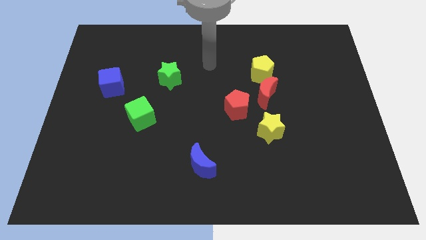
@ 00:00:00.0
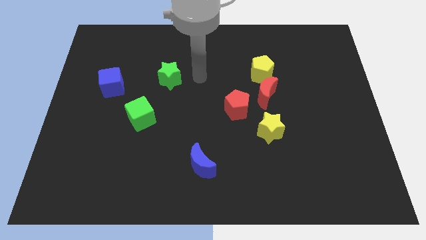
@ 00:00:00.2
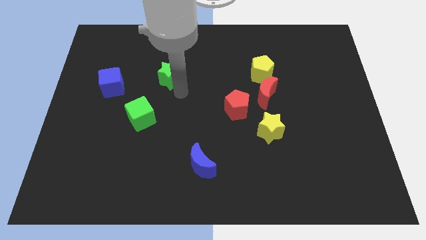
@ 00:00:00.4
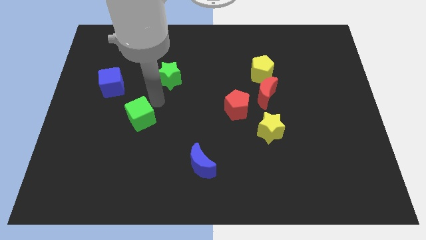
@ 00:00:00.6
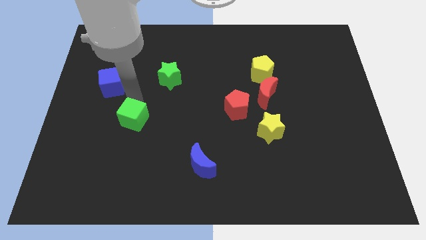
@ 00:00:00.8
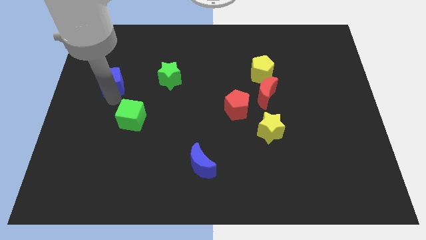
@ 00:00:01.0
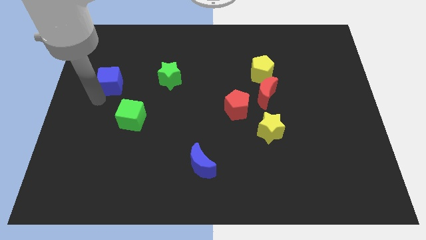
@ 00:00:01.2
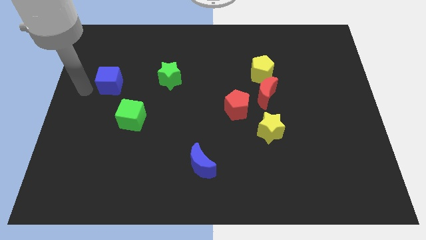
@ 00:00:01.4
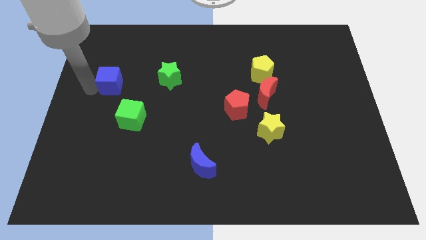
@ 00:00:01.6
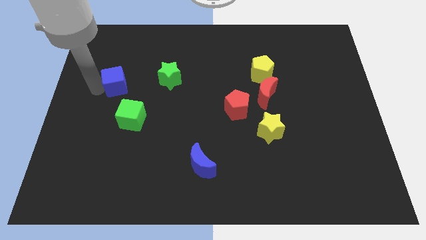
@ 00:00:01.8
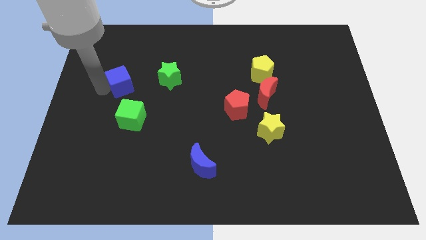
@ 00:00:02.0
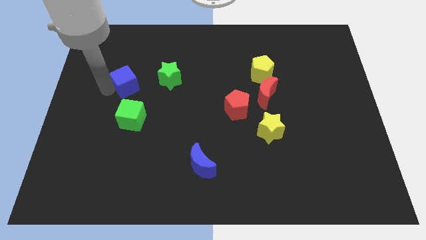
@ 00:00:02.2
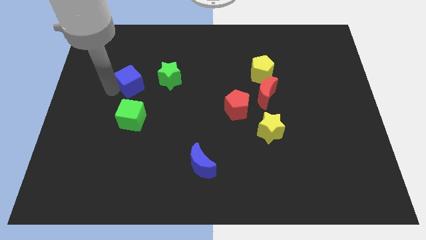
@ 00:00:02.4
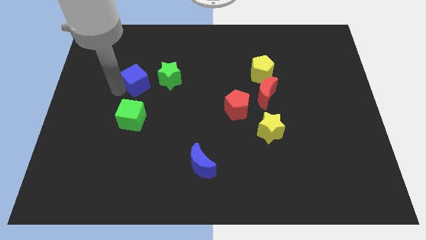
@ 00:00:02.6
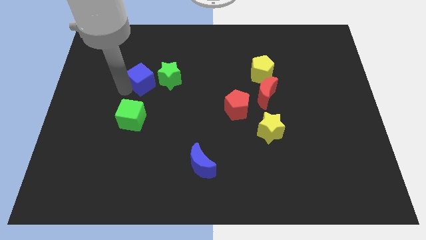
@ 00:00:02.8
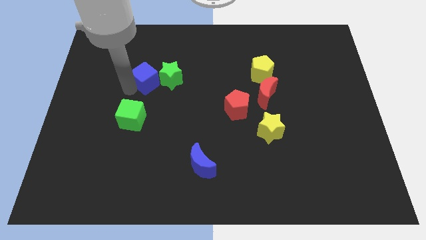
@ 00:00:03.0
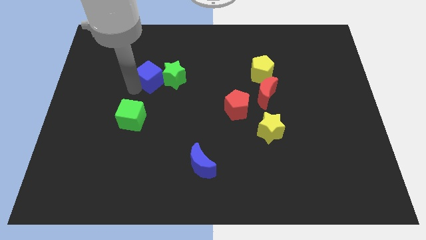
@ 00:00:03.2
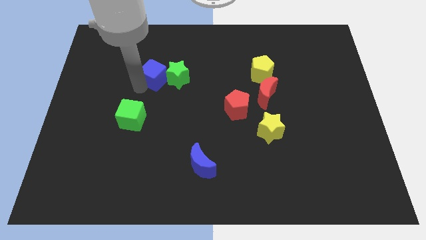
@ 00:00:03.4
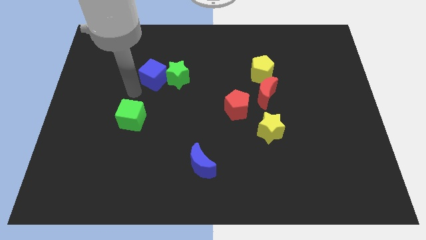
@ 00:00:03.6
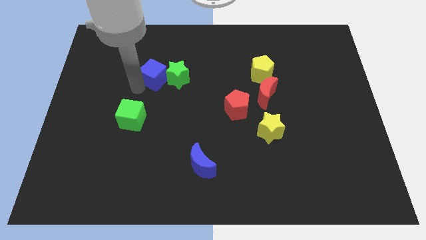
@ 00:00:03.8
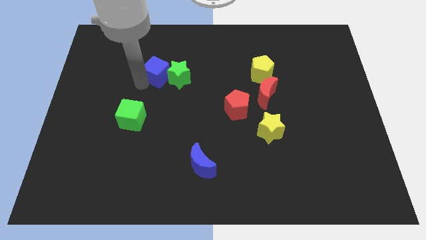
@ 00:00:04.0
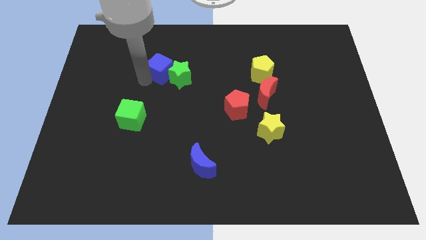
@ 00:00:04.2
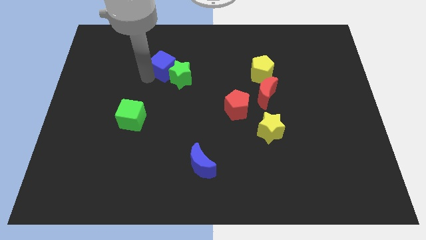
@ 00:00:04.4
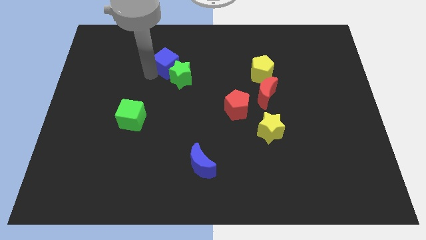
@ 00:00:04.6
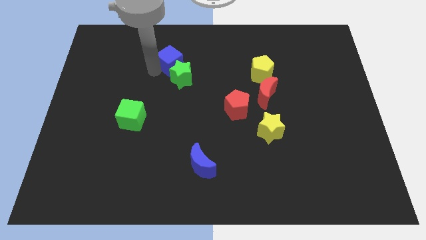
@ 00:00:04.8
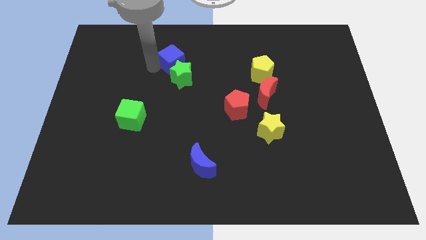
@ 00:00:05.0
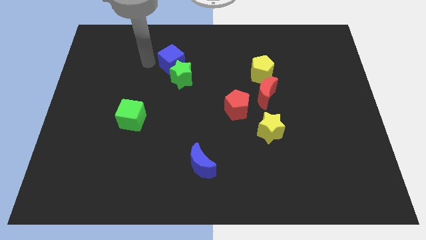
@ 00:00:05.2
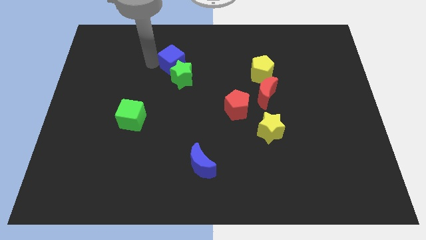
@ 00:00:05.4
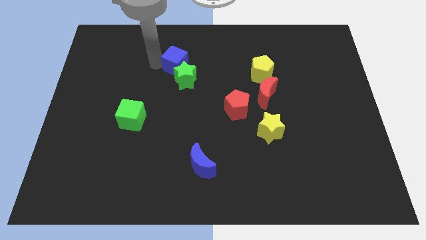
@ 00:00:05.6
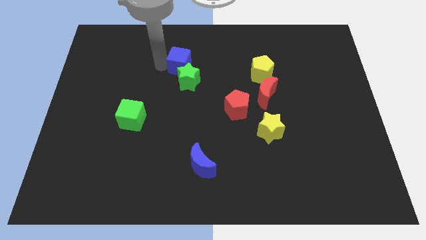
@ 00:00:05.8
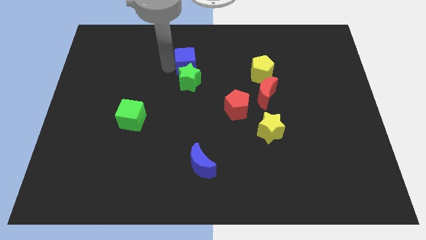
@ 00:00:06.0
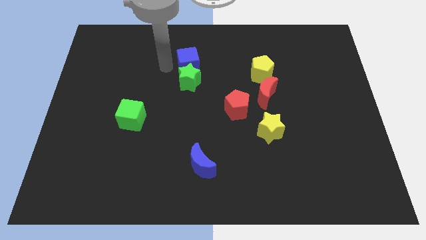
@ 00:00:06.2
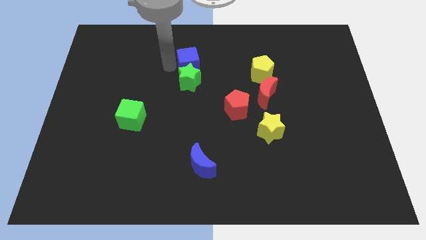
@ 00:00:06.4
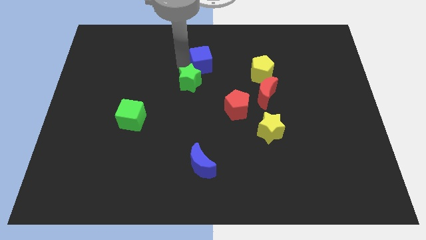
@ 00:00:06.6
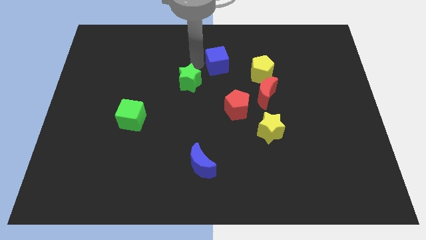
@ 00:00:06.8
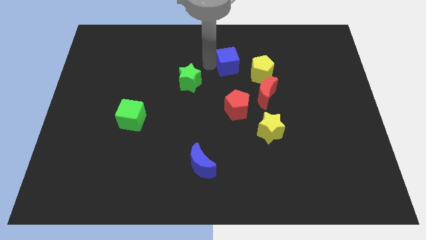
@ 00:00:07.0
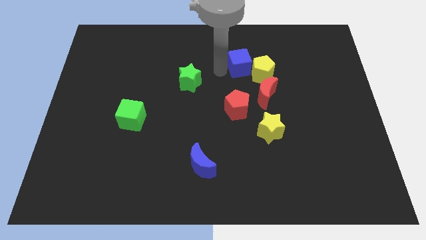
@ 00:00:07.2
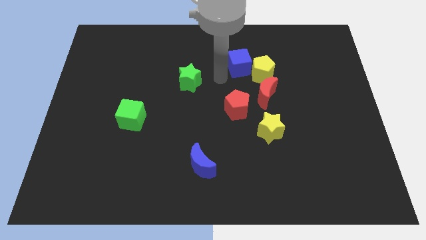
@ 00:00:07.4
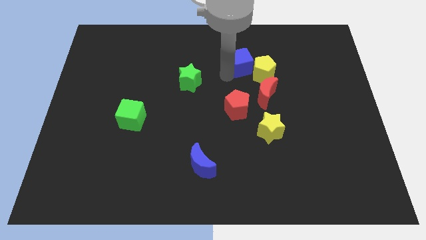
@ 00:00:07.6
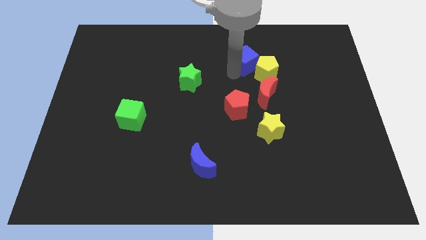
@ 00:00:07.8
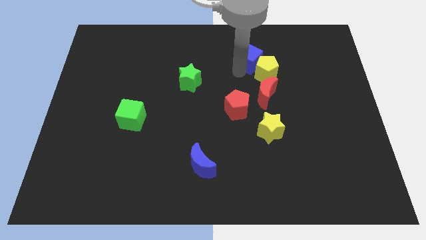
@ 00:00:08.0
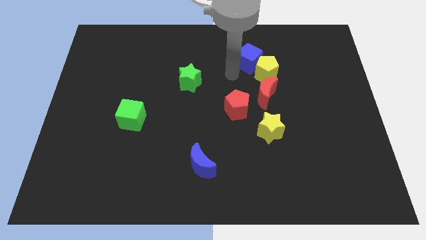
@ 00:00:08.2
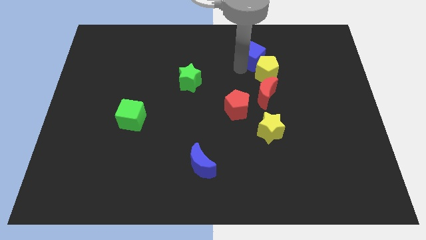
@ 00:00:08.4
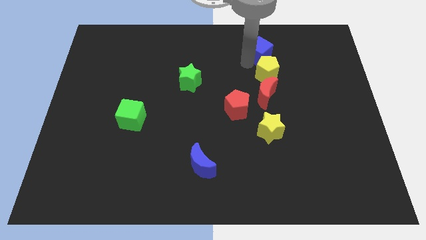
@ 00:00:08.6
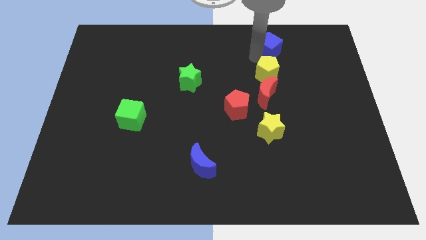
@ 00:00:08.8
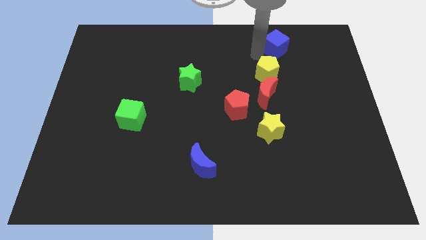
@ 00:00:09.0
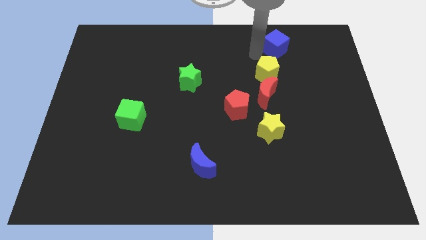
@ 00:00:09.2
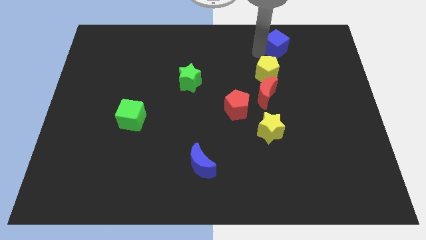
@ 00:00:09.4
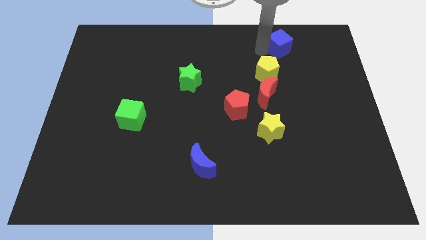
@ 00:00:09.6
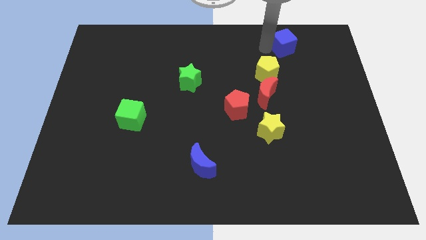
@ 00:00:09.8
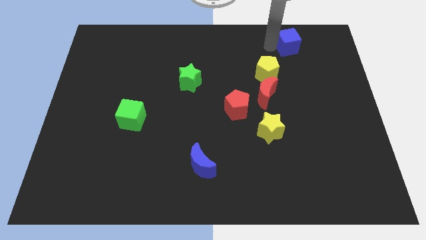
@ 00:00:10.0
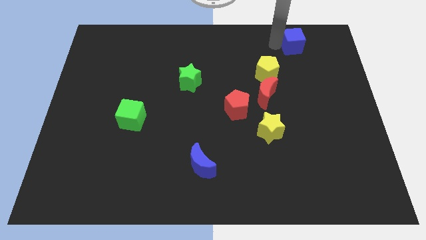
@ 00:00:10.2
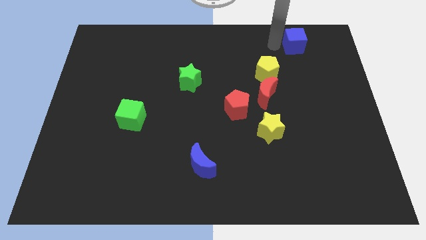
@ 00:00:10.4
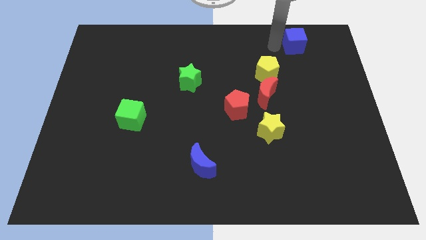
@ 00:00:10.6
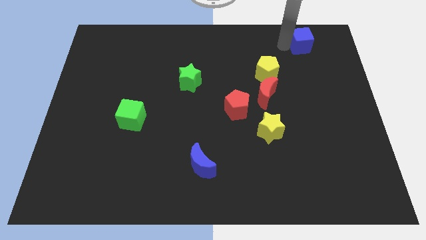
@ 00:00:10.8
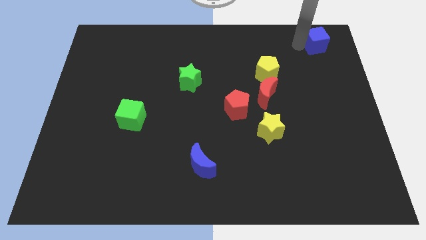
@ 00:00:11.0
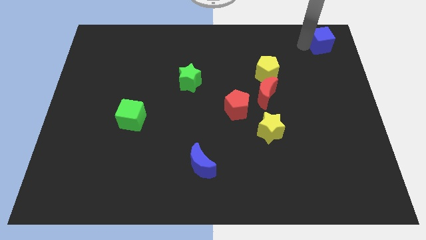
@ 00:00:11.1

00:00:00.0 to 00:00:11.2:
slide the blue cube to the top right

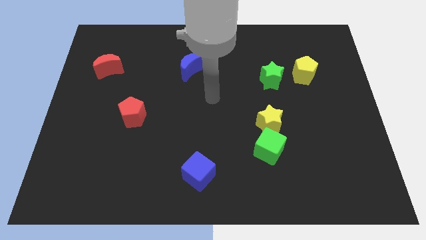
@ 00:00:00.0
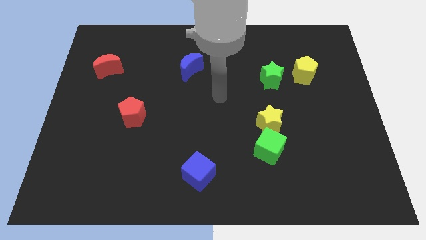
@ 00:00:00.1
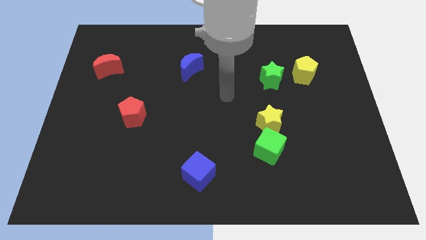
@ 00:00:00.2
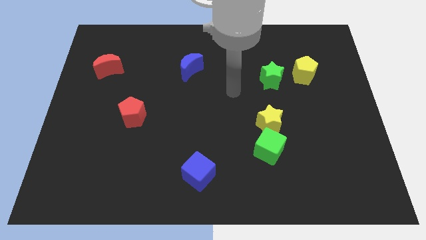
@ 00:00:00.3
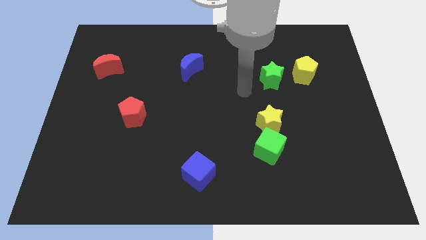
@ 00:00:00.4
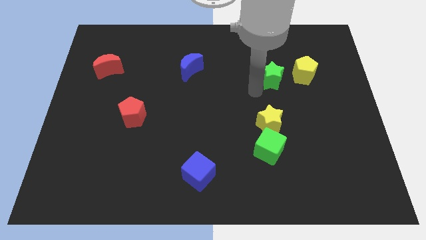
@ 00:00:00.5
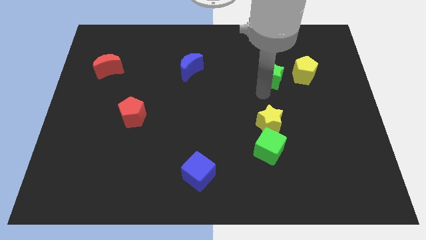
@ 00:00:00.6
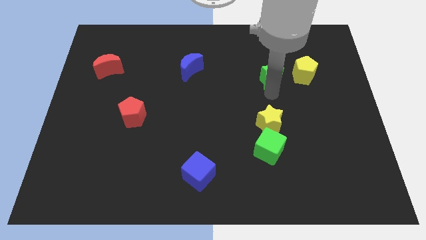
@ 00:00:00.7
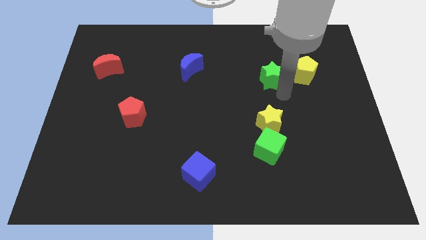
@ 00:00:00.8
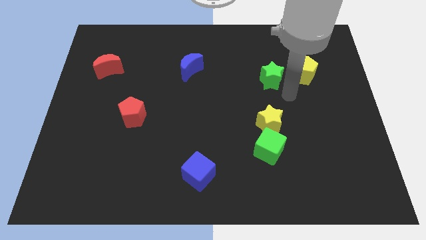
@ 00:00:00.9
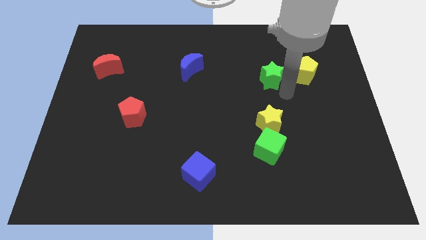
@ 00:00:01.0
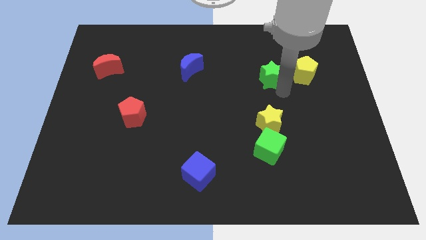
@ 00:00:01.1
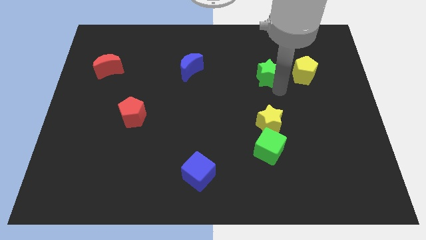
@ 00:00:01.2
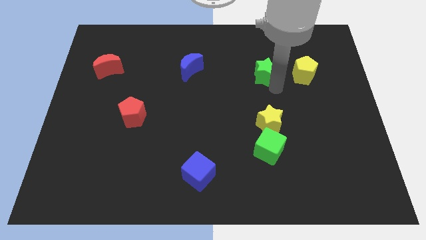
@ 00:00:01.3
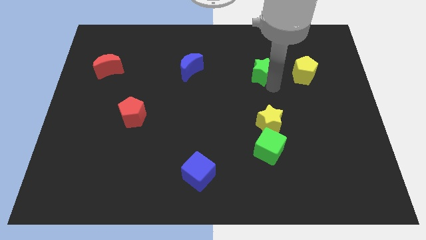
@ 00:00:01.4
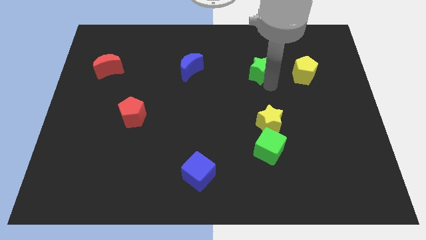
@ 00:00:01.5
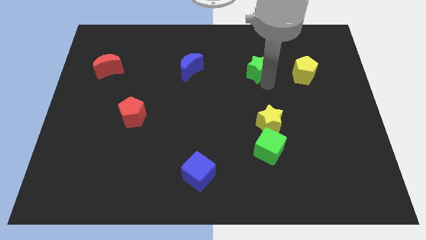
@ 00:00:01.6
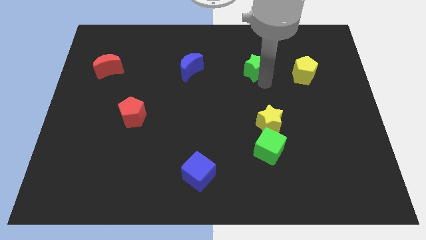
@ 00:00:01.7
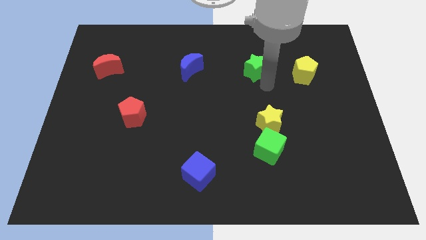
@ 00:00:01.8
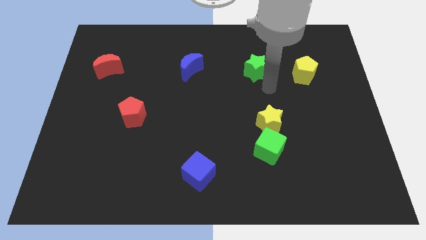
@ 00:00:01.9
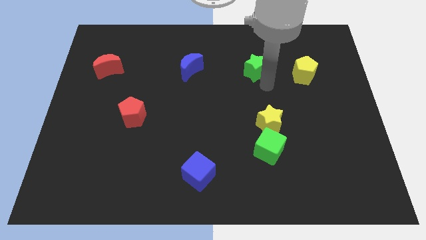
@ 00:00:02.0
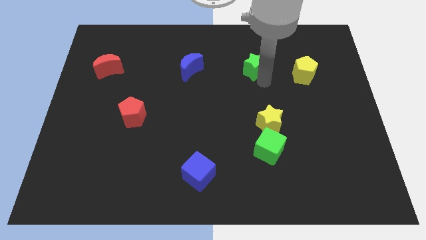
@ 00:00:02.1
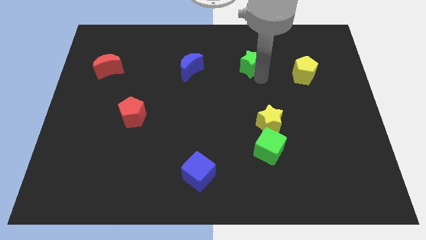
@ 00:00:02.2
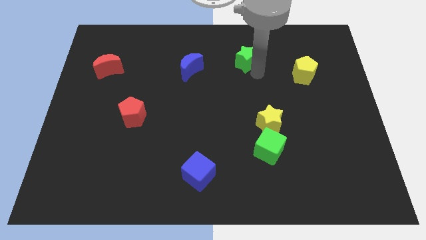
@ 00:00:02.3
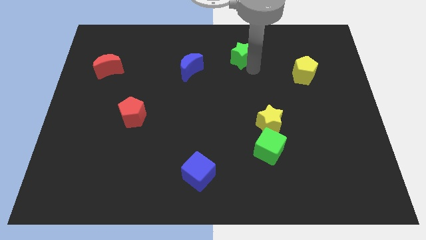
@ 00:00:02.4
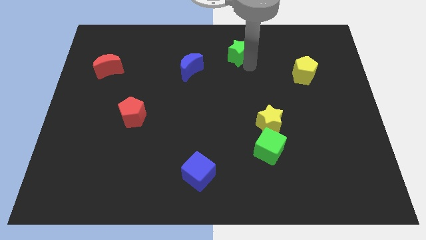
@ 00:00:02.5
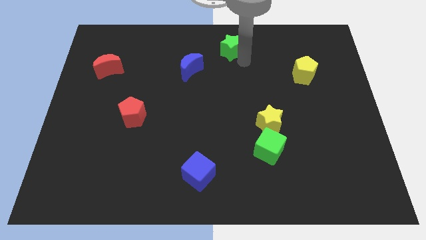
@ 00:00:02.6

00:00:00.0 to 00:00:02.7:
put the green star to the towards your base
